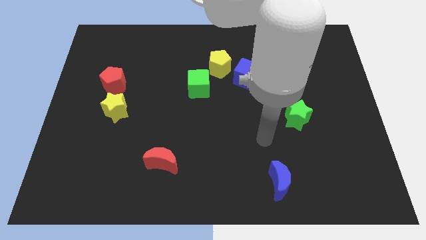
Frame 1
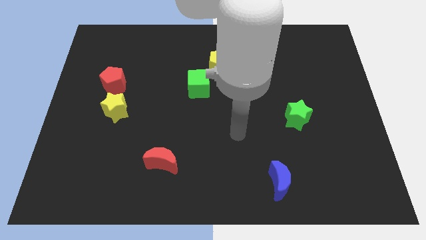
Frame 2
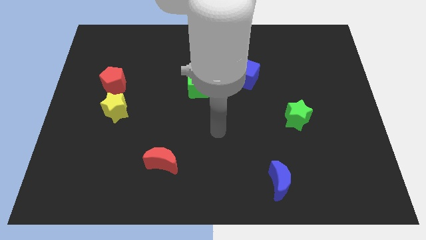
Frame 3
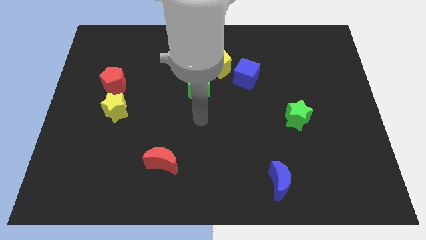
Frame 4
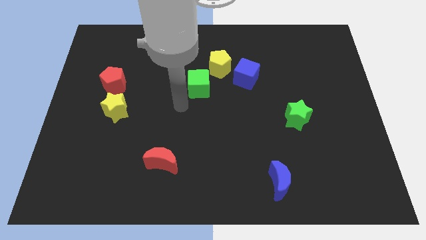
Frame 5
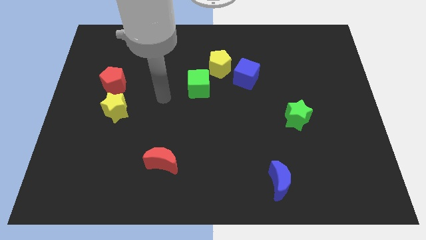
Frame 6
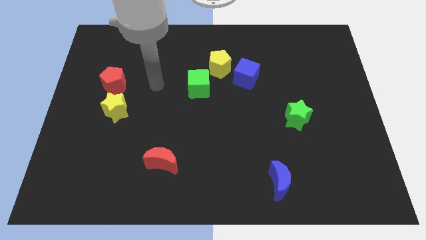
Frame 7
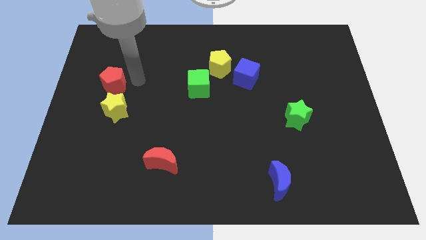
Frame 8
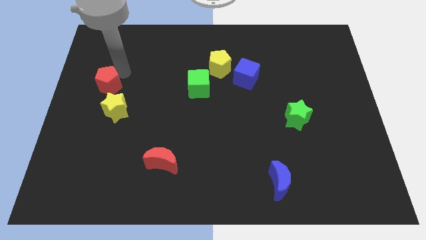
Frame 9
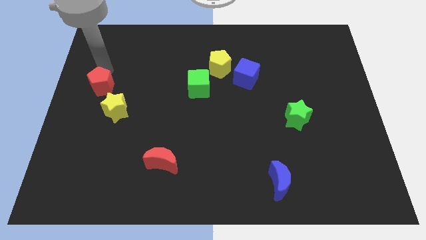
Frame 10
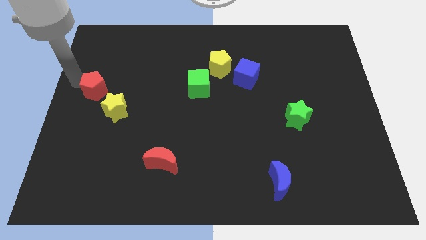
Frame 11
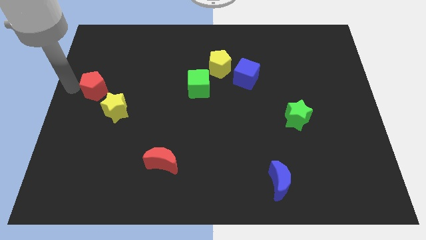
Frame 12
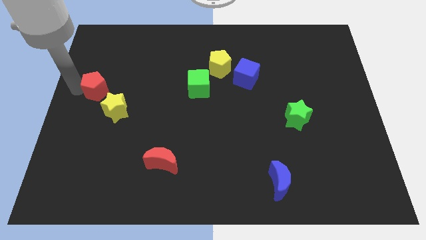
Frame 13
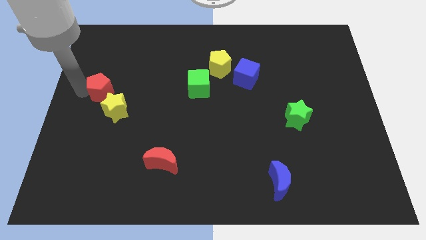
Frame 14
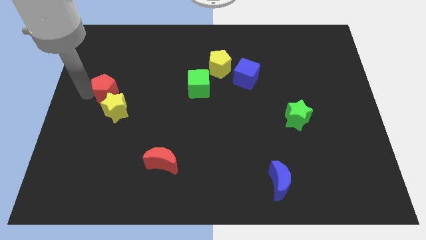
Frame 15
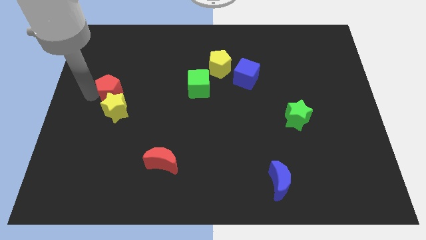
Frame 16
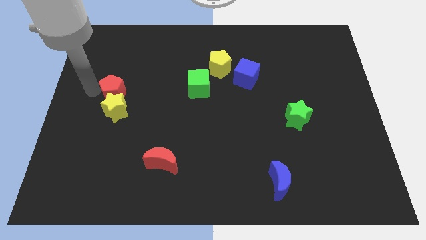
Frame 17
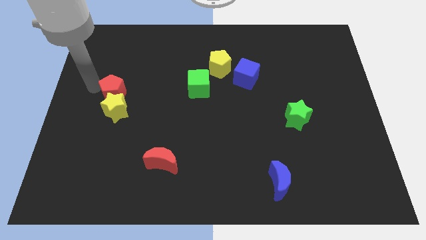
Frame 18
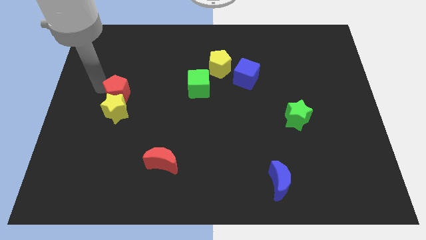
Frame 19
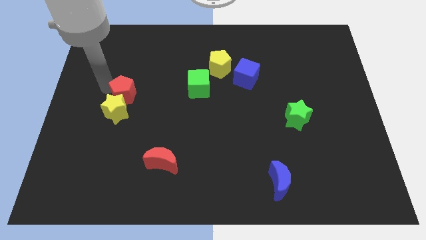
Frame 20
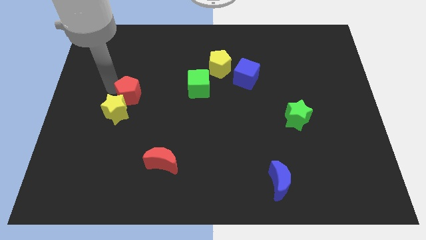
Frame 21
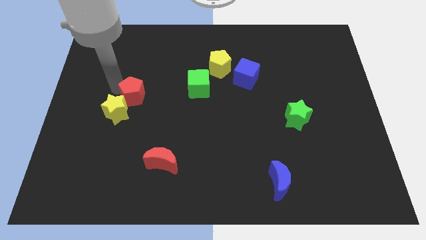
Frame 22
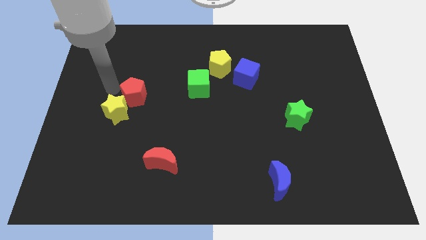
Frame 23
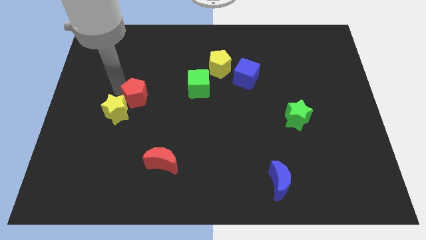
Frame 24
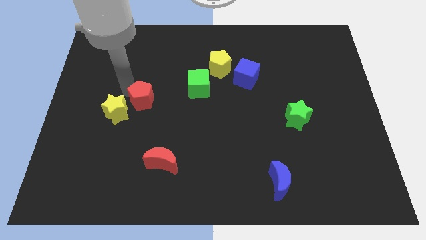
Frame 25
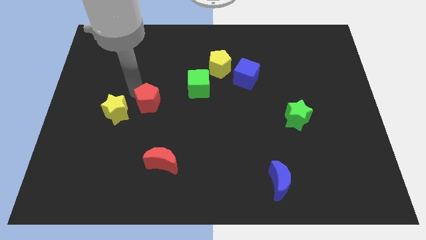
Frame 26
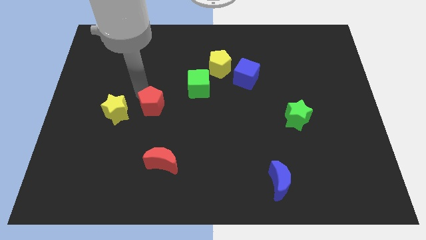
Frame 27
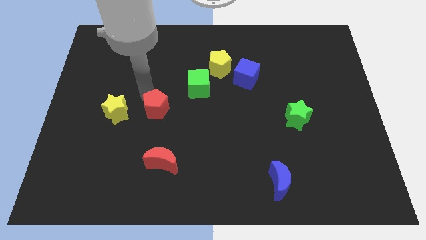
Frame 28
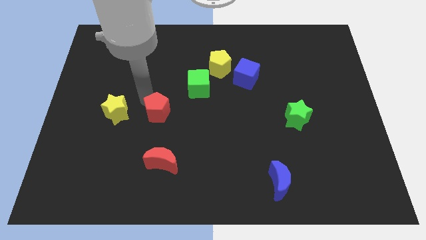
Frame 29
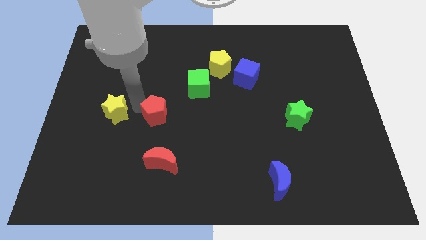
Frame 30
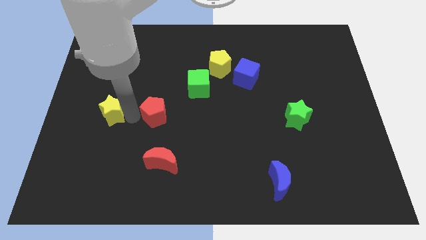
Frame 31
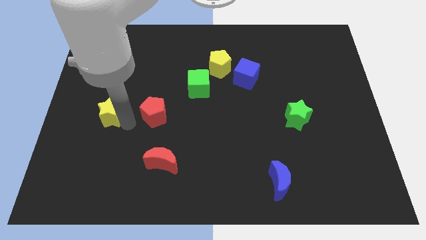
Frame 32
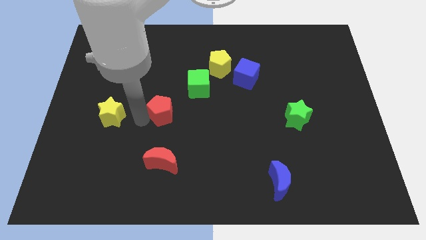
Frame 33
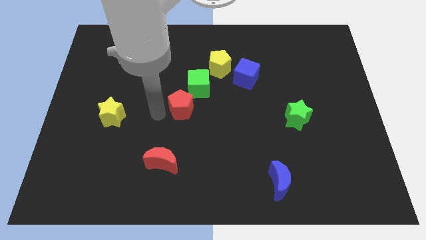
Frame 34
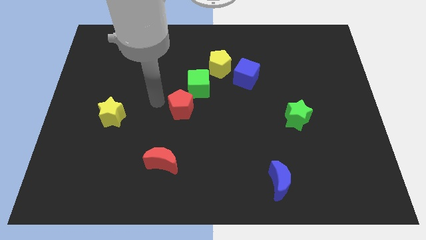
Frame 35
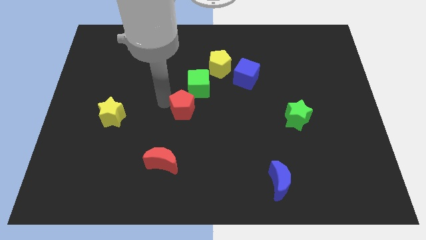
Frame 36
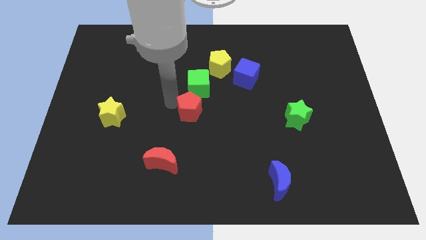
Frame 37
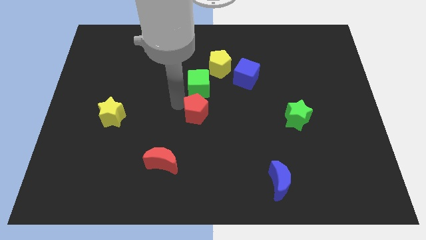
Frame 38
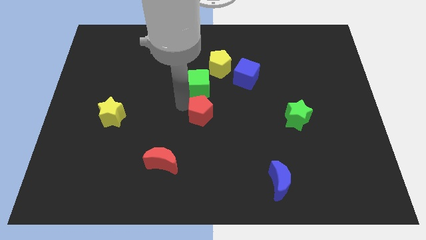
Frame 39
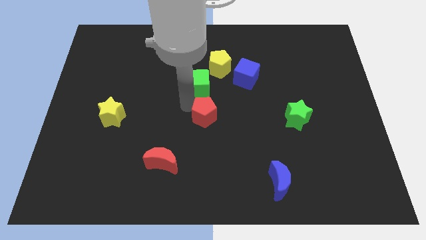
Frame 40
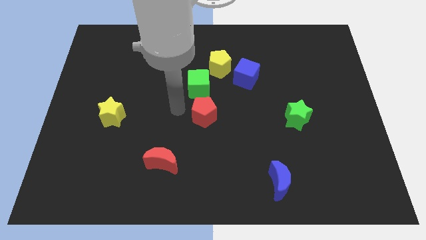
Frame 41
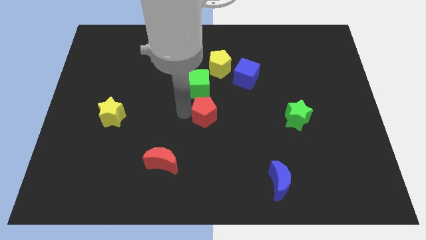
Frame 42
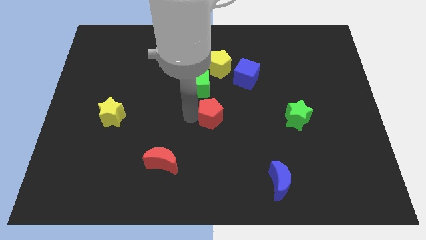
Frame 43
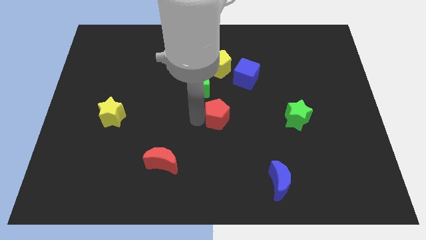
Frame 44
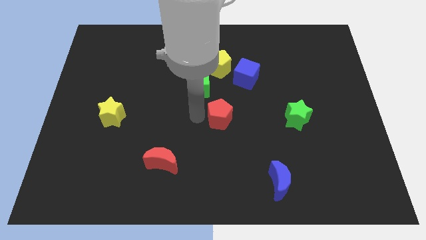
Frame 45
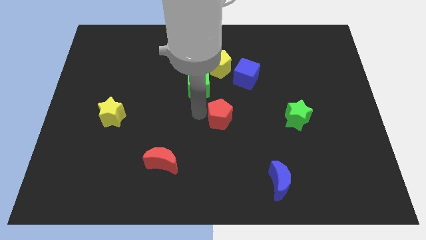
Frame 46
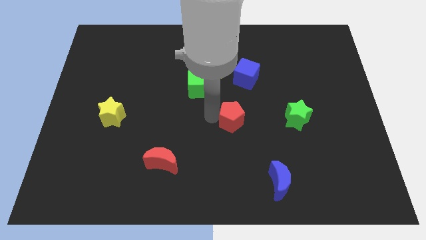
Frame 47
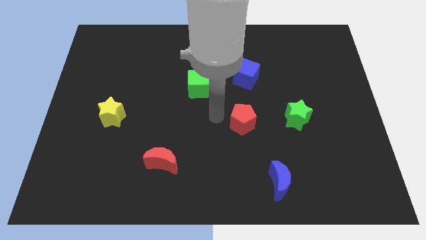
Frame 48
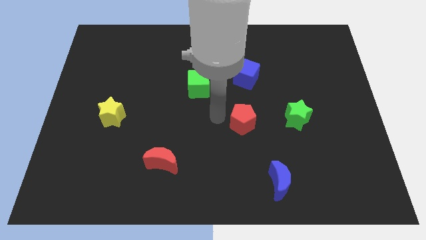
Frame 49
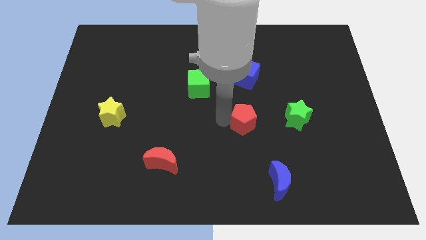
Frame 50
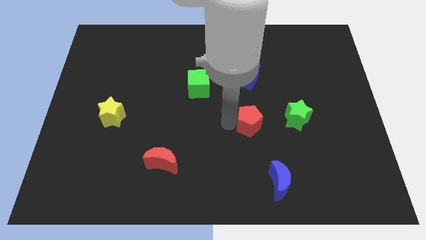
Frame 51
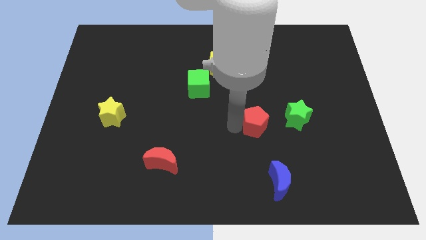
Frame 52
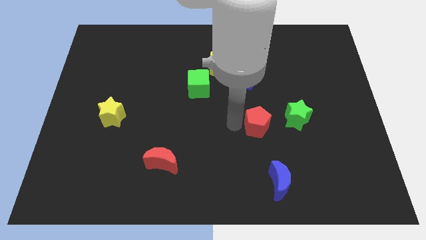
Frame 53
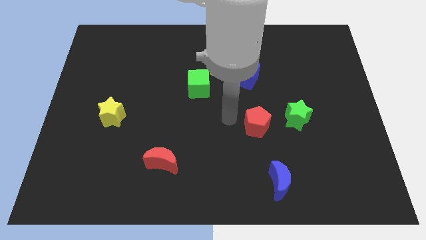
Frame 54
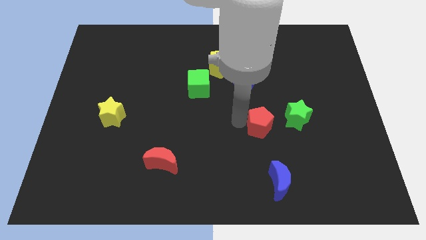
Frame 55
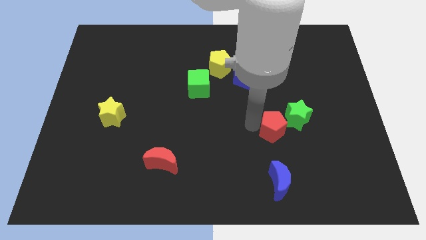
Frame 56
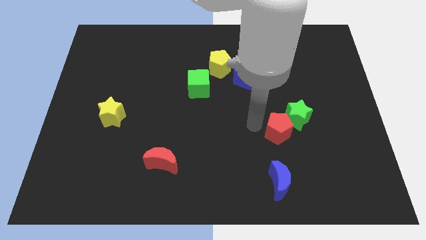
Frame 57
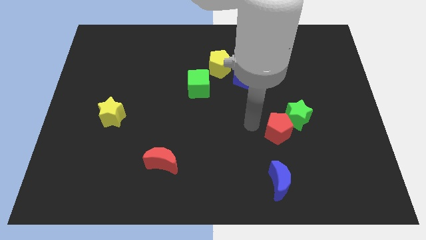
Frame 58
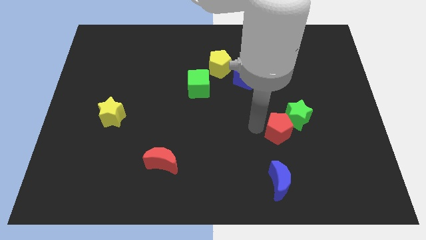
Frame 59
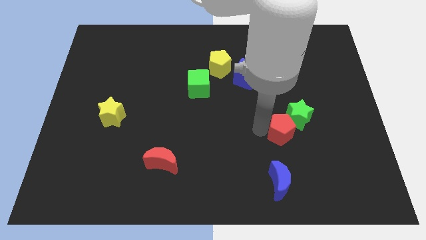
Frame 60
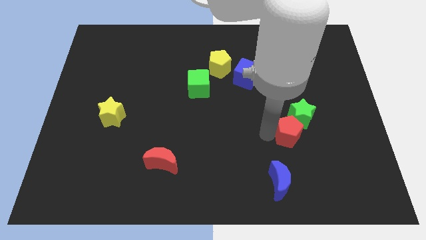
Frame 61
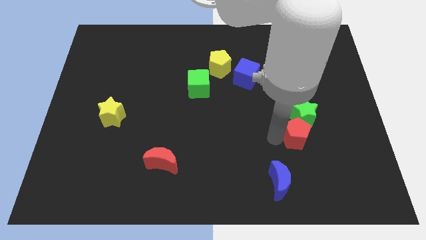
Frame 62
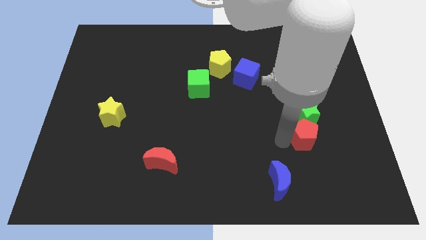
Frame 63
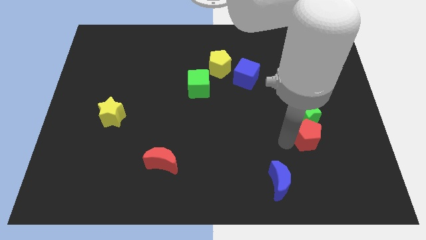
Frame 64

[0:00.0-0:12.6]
put the red pentagon diagonally down and to the right of the green star

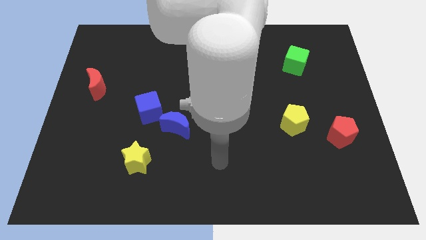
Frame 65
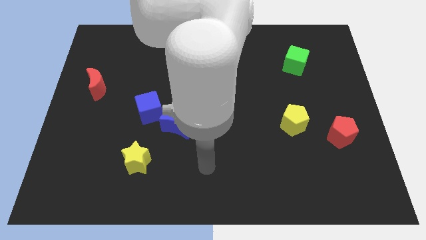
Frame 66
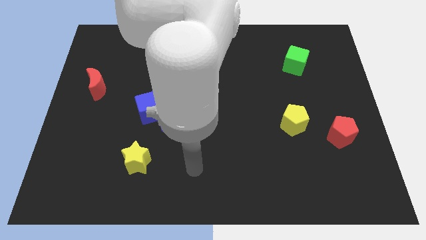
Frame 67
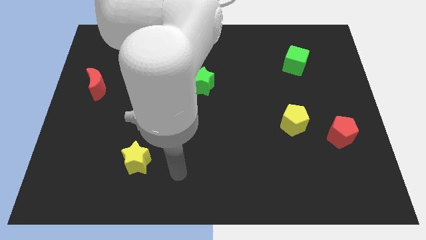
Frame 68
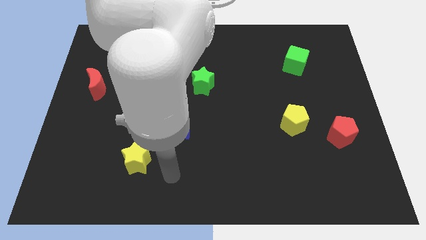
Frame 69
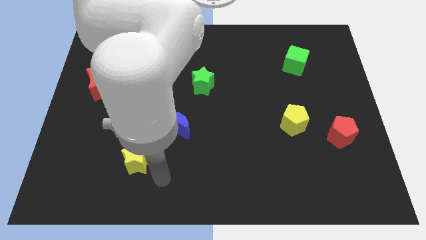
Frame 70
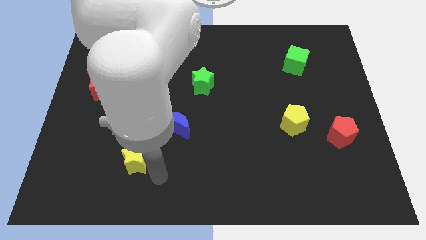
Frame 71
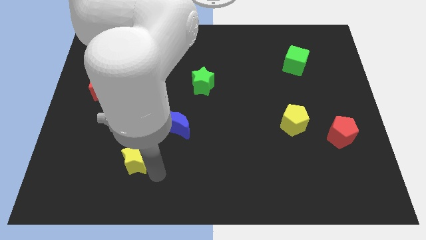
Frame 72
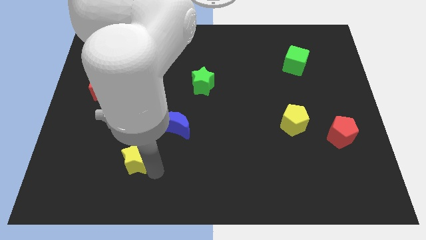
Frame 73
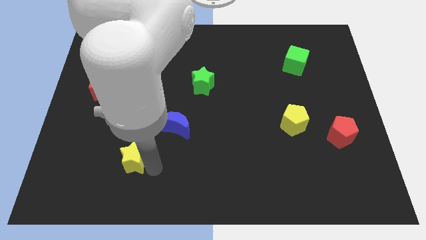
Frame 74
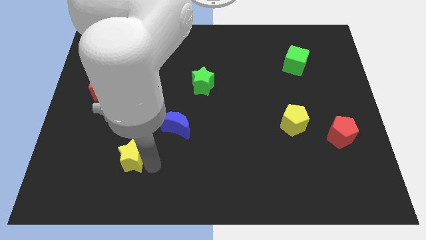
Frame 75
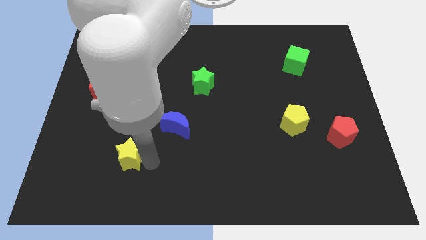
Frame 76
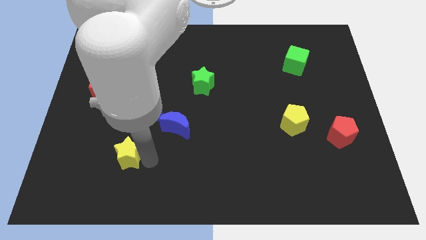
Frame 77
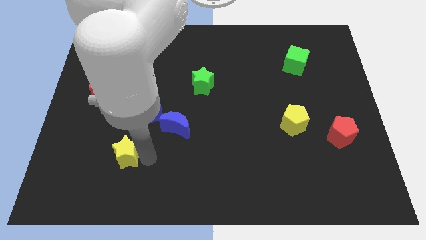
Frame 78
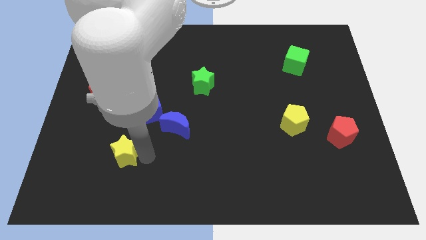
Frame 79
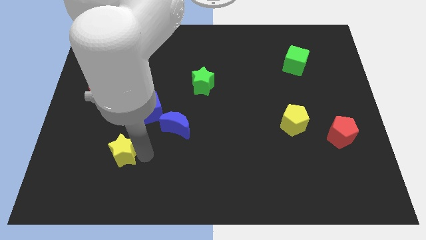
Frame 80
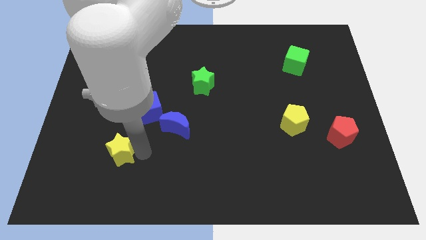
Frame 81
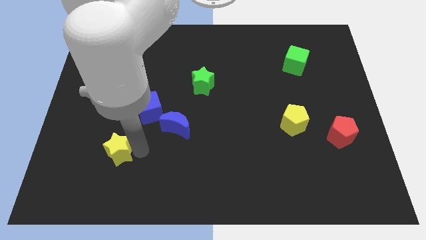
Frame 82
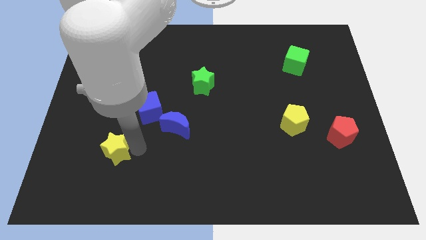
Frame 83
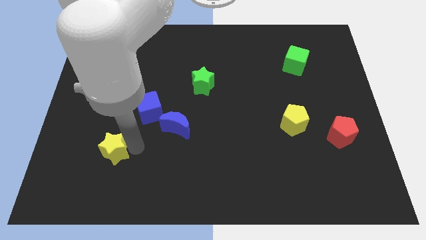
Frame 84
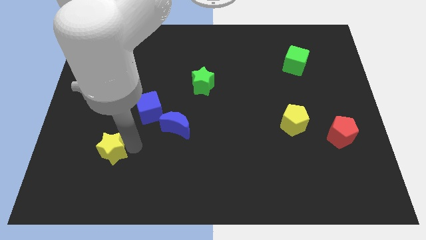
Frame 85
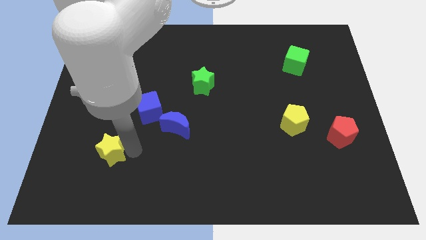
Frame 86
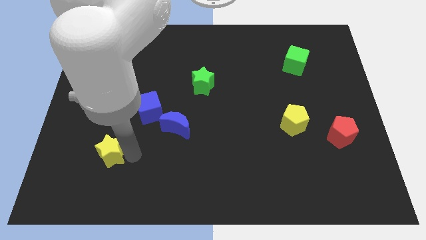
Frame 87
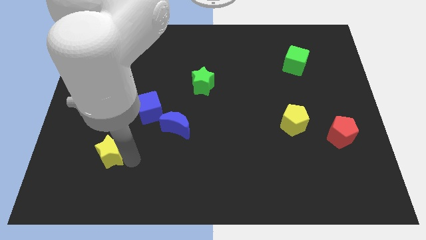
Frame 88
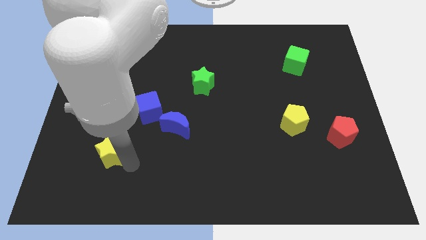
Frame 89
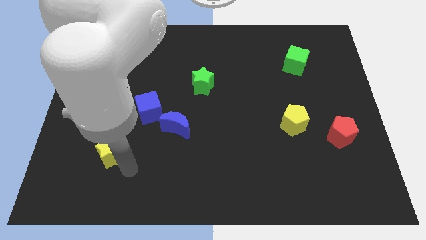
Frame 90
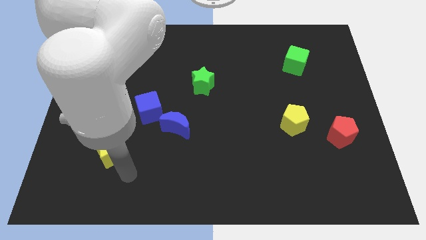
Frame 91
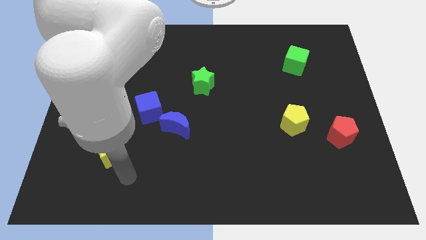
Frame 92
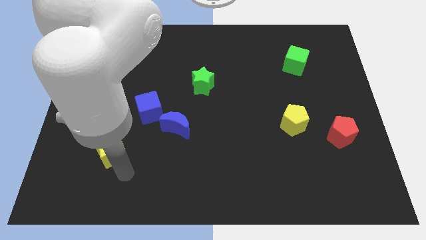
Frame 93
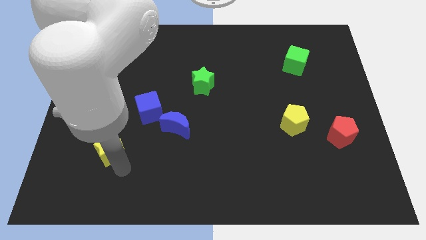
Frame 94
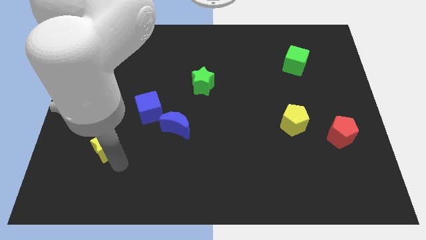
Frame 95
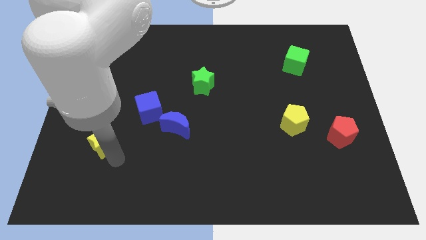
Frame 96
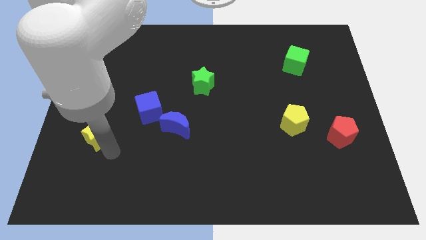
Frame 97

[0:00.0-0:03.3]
put the yellow star to the bottom side of the red moon
